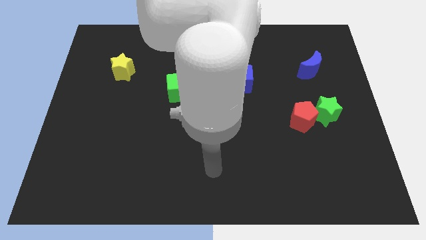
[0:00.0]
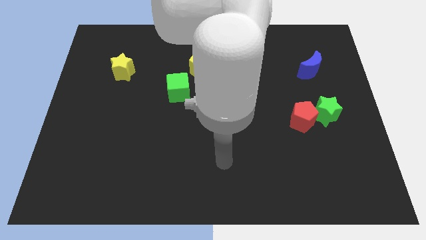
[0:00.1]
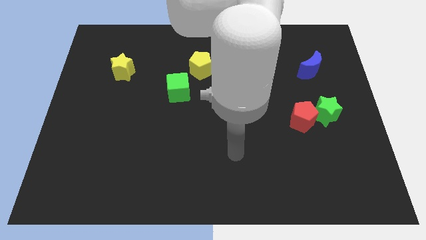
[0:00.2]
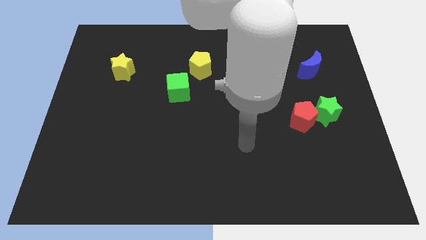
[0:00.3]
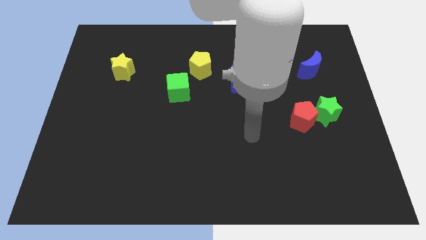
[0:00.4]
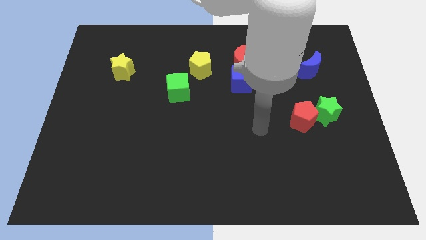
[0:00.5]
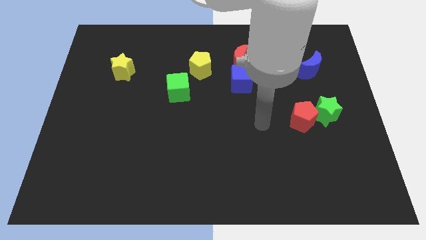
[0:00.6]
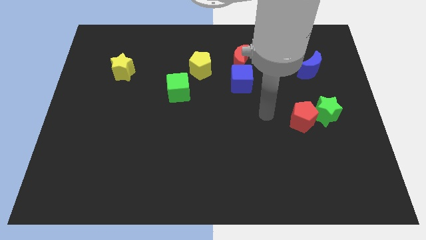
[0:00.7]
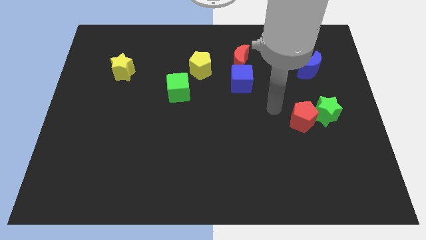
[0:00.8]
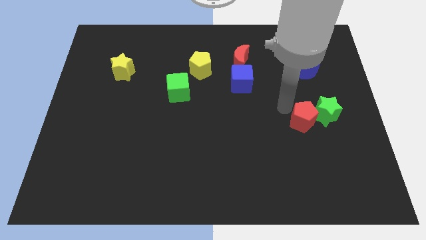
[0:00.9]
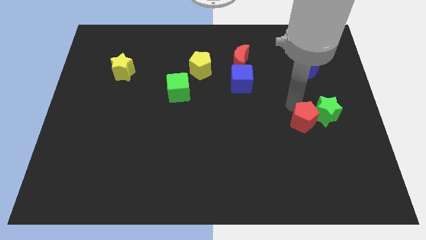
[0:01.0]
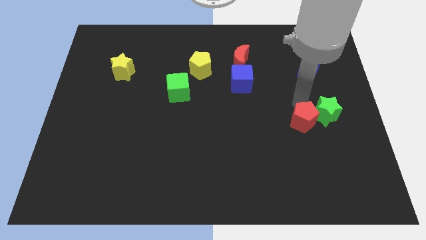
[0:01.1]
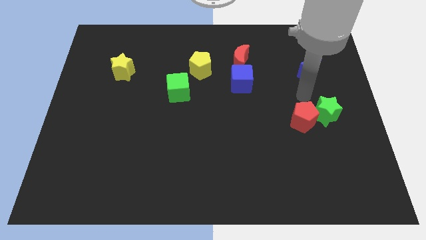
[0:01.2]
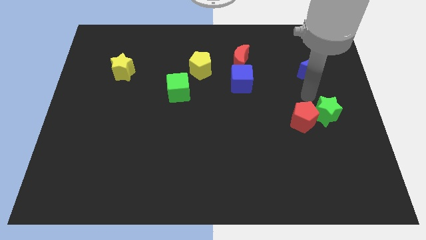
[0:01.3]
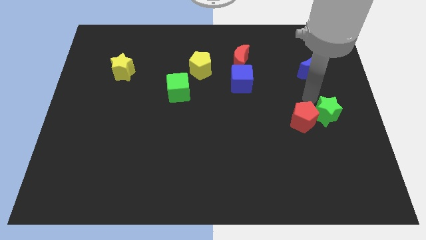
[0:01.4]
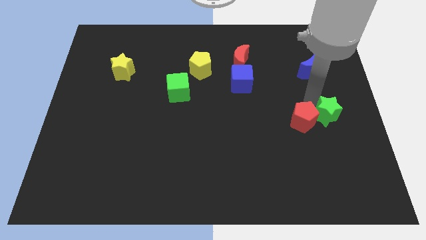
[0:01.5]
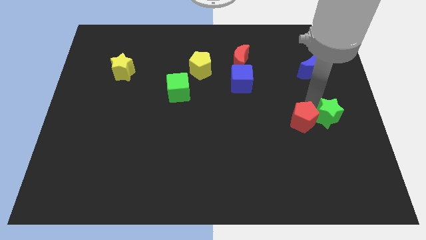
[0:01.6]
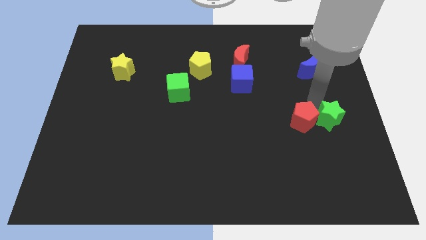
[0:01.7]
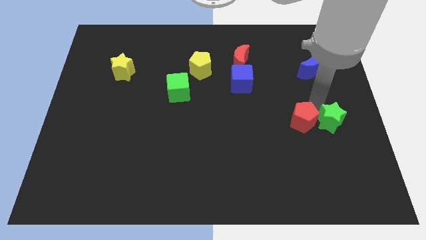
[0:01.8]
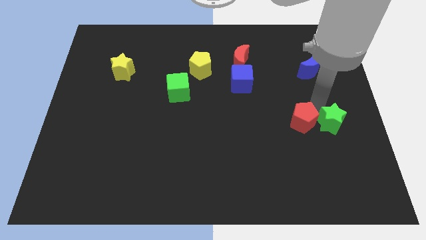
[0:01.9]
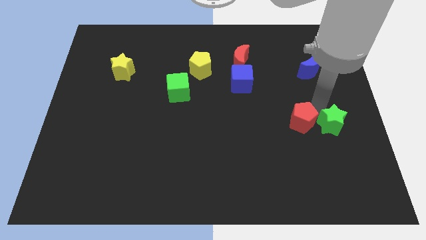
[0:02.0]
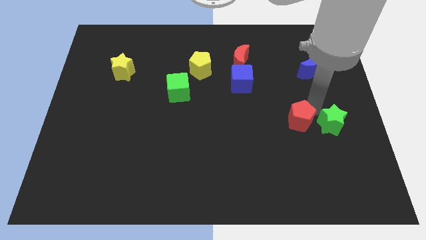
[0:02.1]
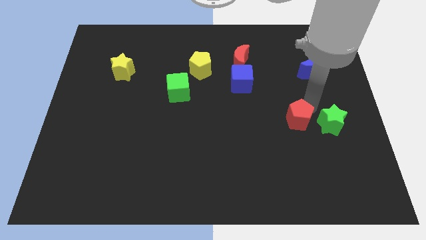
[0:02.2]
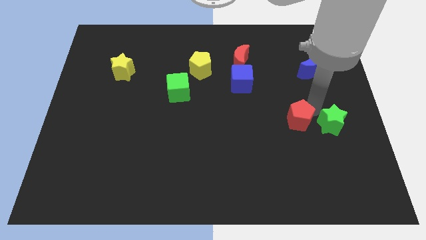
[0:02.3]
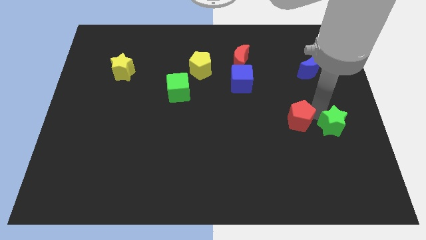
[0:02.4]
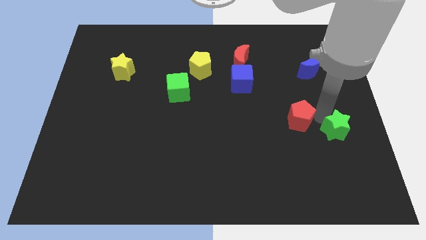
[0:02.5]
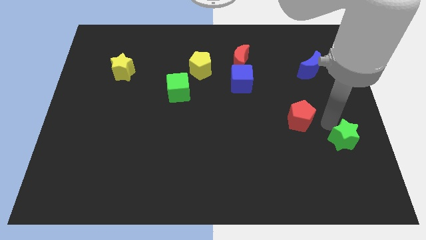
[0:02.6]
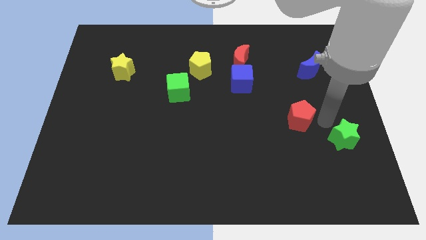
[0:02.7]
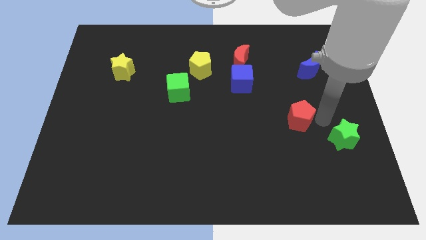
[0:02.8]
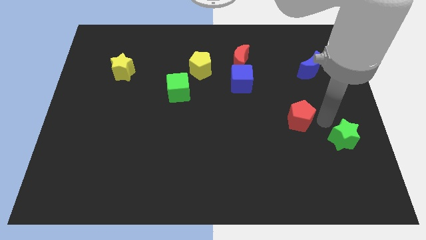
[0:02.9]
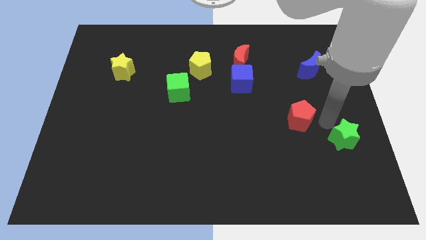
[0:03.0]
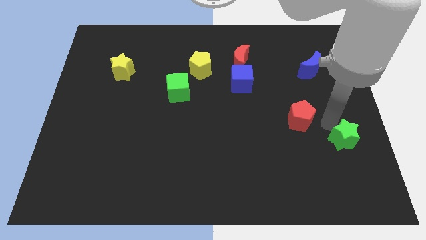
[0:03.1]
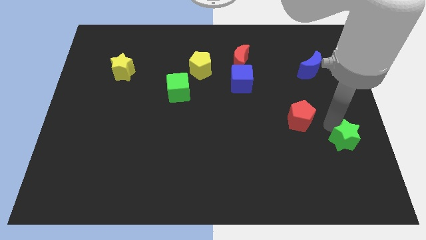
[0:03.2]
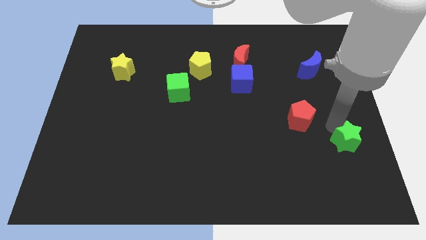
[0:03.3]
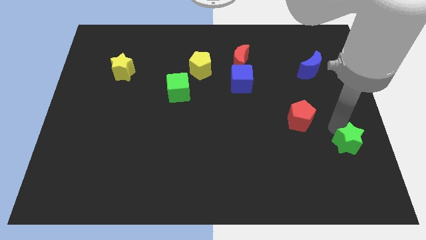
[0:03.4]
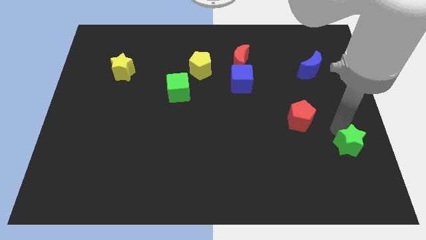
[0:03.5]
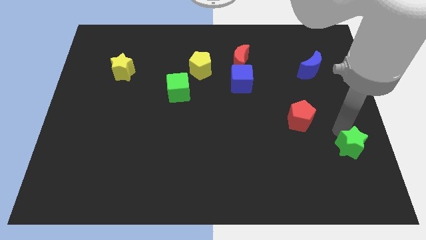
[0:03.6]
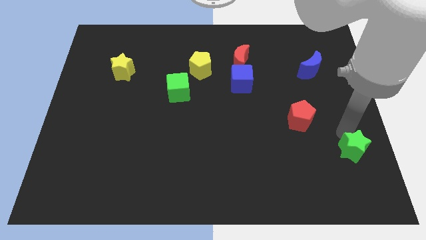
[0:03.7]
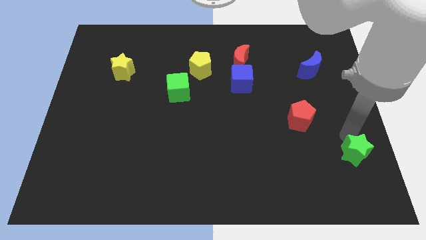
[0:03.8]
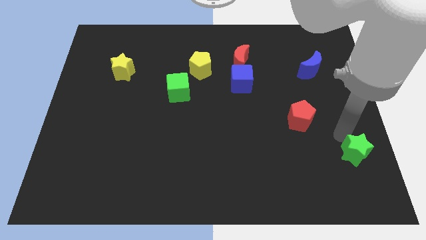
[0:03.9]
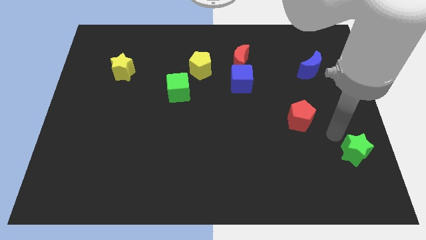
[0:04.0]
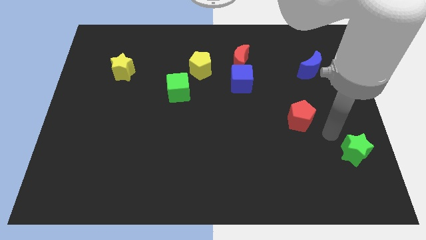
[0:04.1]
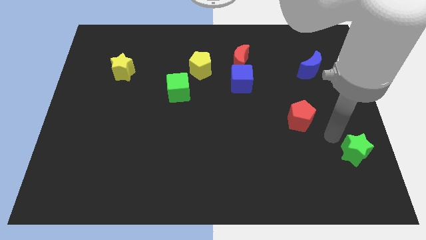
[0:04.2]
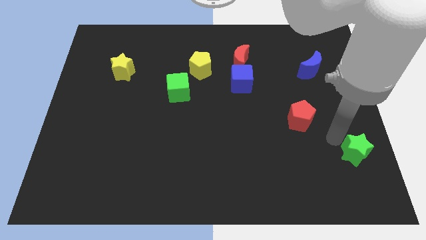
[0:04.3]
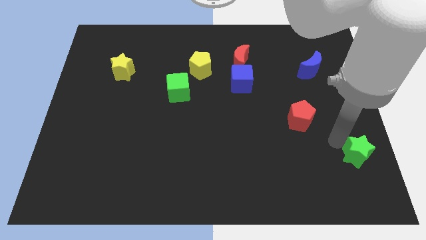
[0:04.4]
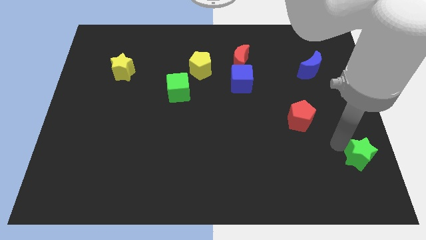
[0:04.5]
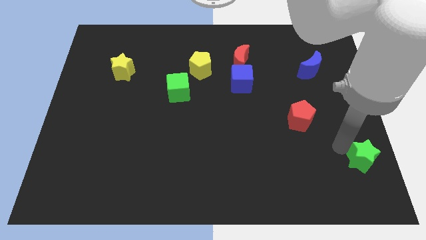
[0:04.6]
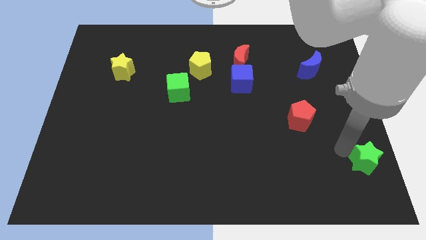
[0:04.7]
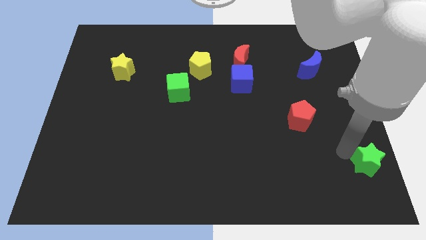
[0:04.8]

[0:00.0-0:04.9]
slide the green star to the bottom right of the board

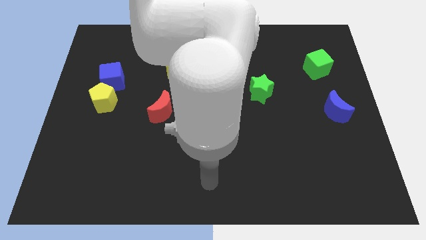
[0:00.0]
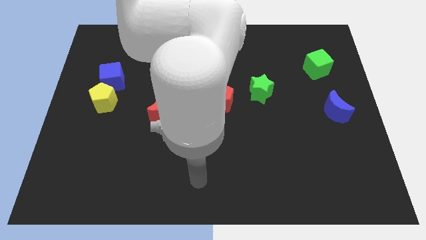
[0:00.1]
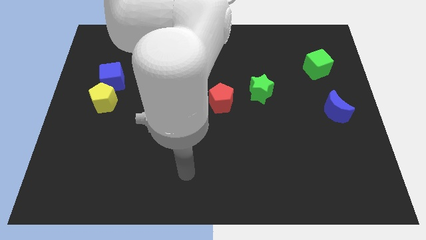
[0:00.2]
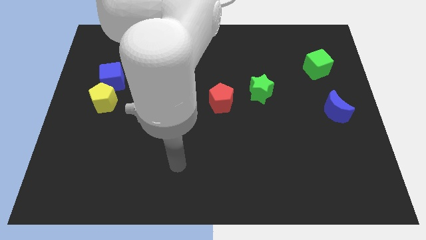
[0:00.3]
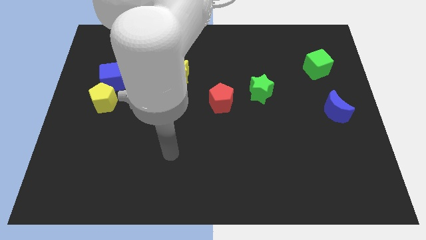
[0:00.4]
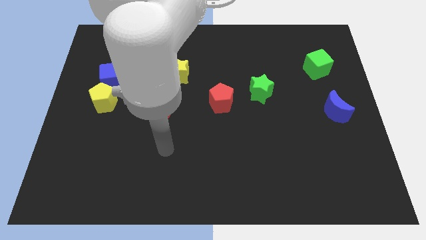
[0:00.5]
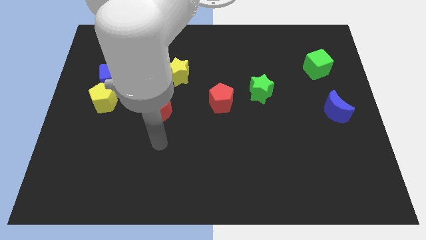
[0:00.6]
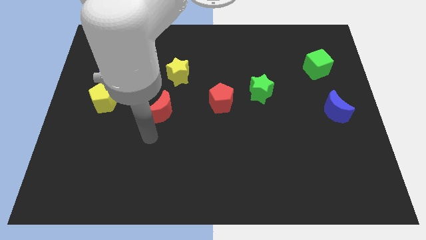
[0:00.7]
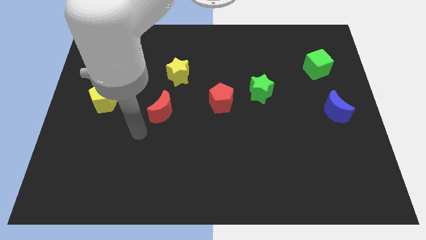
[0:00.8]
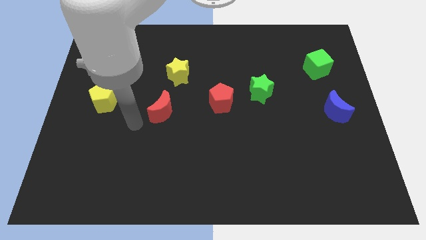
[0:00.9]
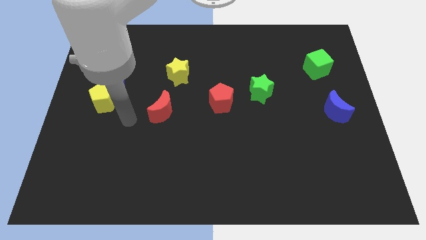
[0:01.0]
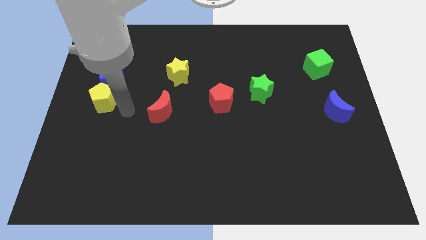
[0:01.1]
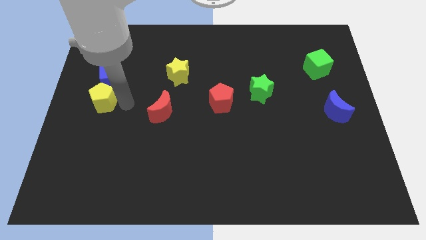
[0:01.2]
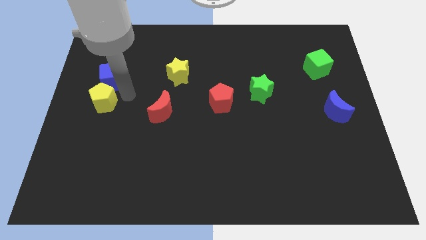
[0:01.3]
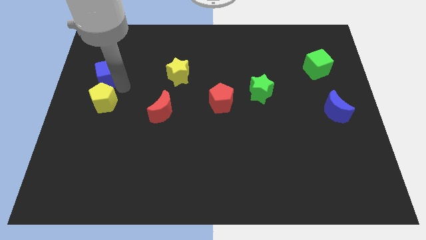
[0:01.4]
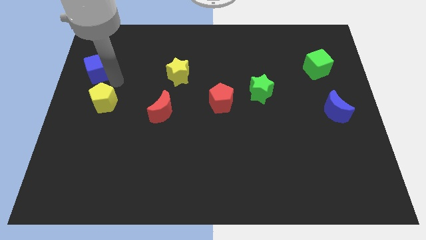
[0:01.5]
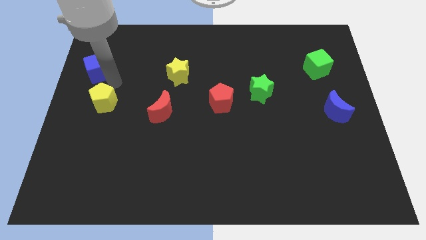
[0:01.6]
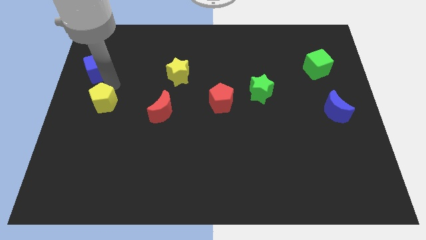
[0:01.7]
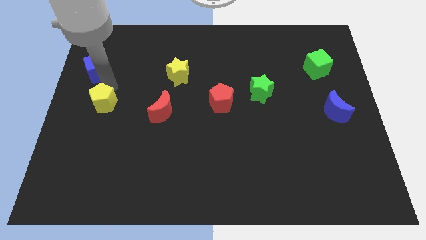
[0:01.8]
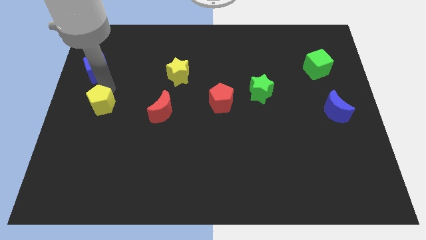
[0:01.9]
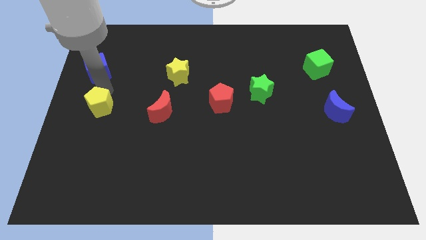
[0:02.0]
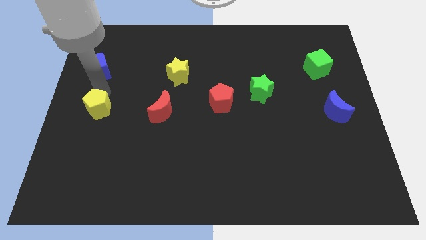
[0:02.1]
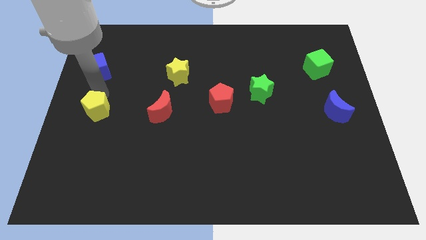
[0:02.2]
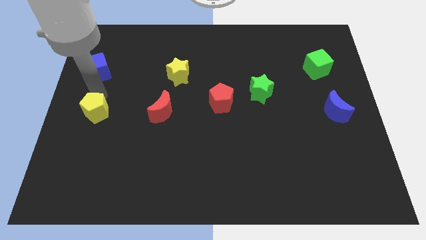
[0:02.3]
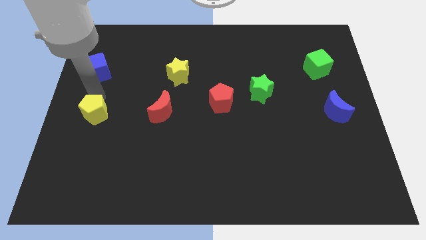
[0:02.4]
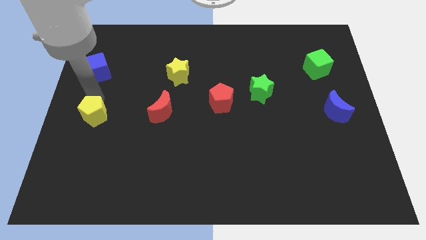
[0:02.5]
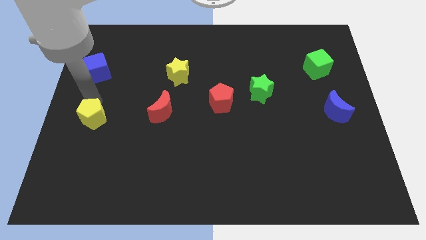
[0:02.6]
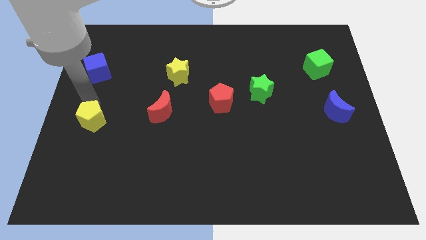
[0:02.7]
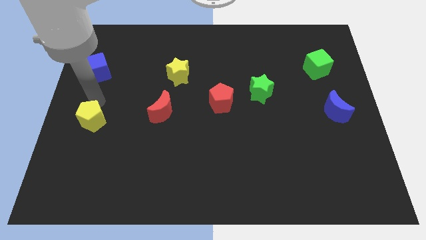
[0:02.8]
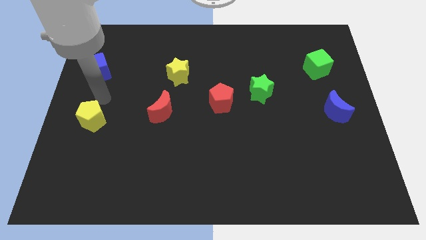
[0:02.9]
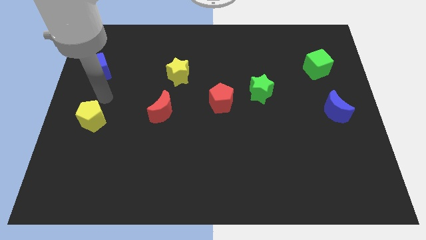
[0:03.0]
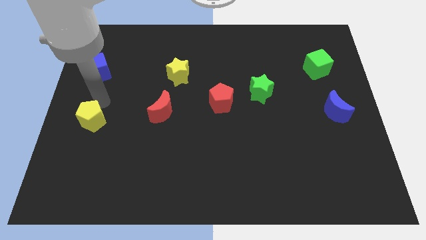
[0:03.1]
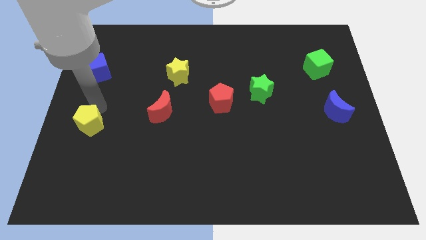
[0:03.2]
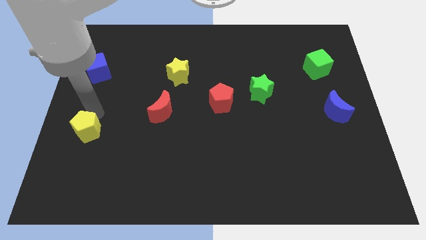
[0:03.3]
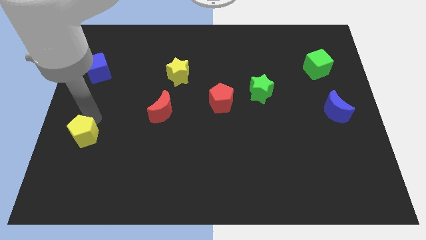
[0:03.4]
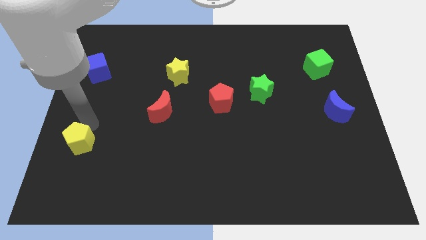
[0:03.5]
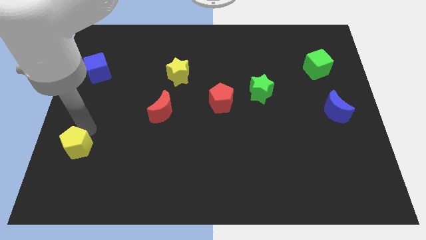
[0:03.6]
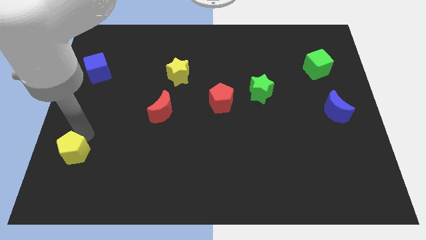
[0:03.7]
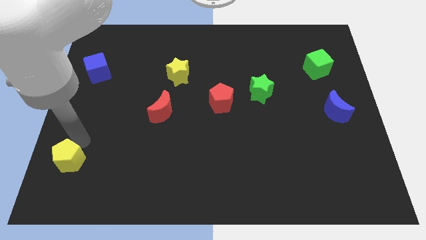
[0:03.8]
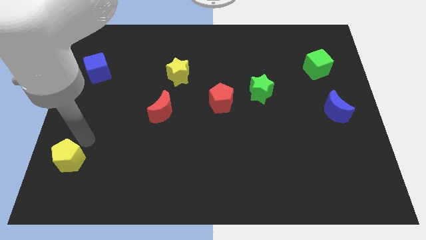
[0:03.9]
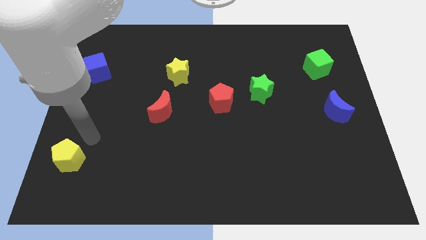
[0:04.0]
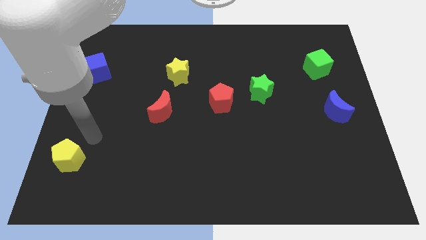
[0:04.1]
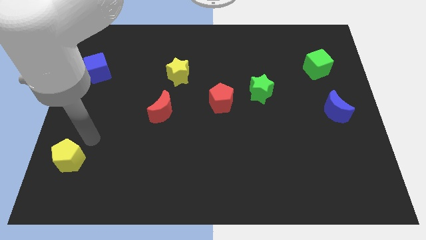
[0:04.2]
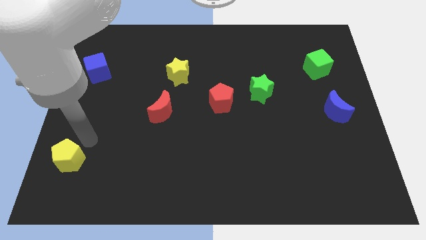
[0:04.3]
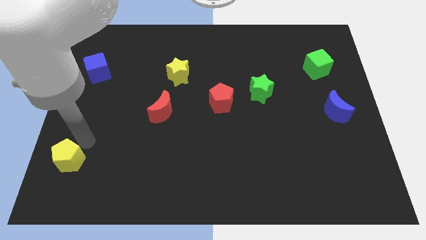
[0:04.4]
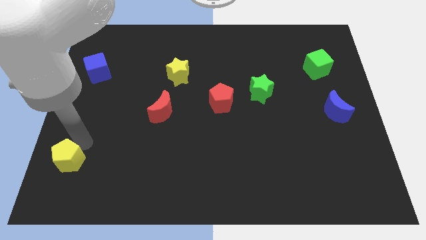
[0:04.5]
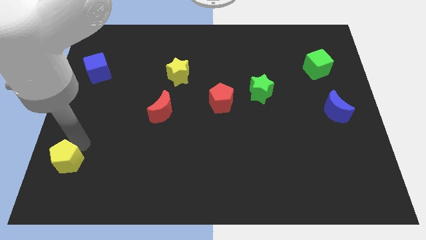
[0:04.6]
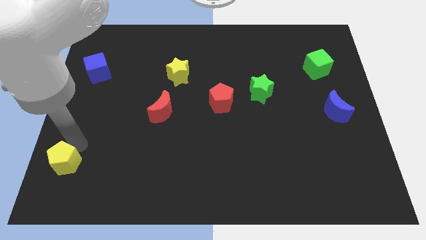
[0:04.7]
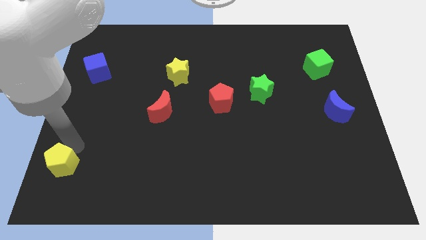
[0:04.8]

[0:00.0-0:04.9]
slide the yellow pentagon to the bottom left of the board
